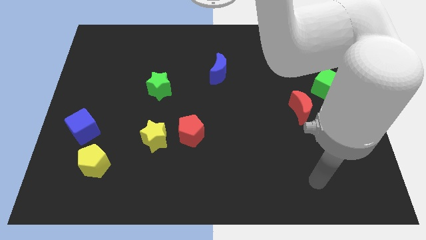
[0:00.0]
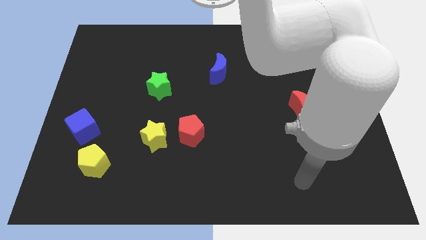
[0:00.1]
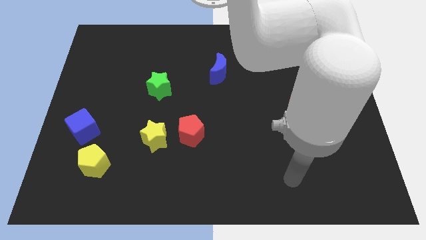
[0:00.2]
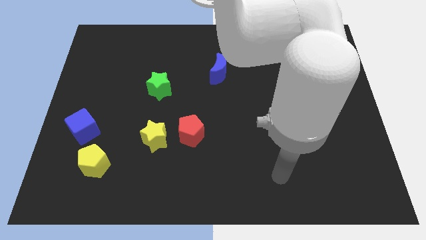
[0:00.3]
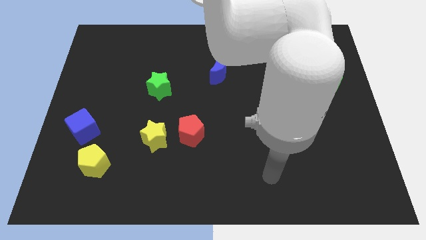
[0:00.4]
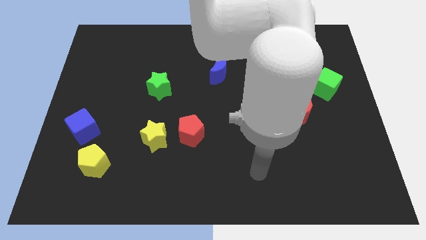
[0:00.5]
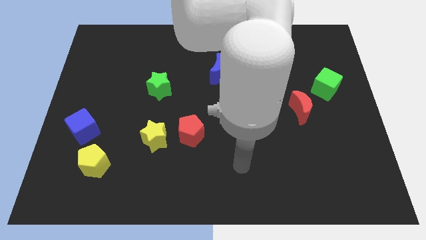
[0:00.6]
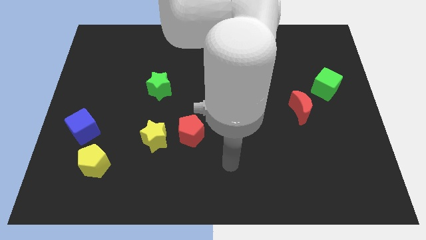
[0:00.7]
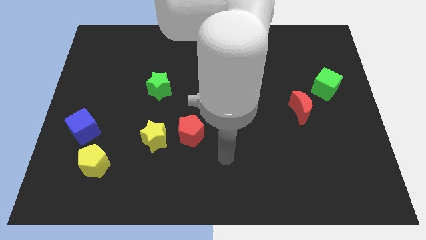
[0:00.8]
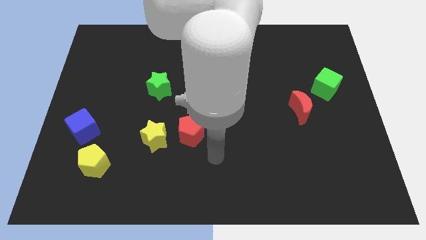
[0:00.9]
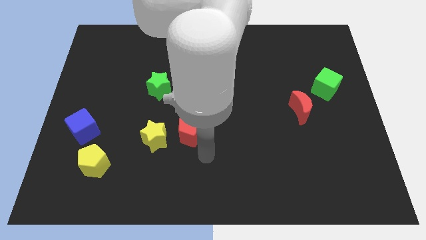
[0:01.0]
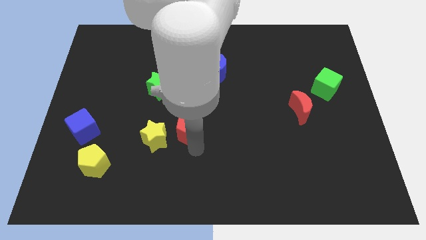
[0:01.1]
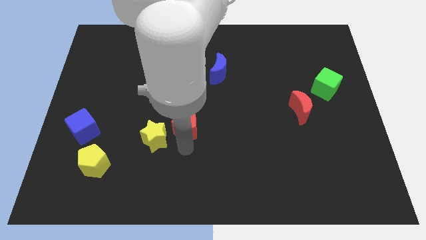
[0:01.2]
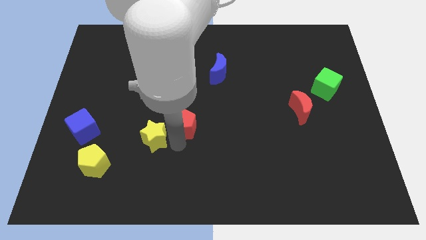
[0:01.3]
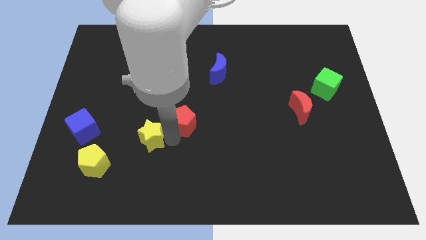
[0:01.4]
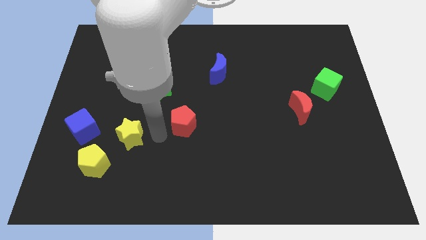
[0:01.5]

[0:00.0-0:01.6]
move the red pentagon away from the yellow star

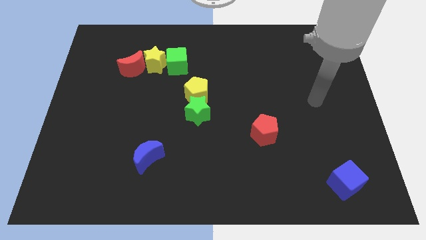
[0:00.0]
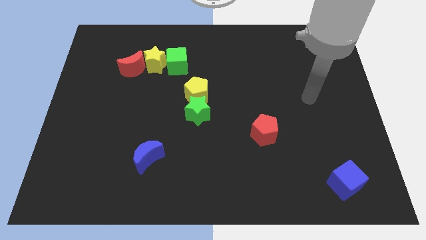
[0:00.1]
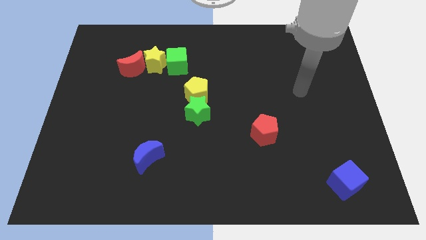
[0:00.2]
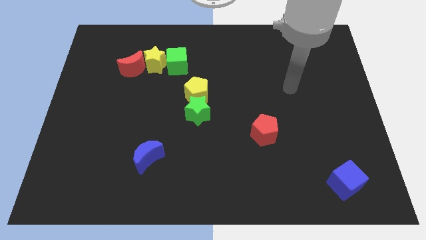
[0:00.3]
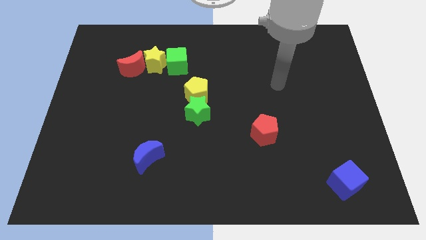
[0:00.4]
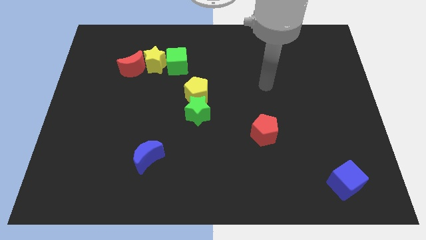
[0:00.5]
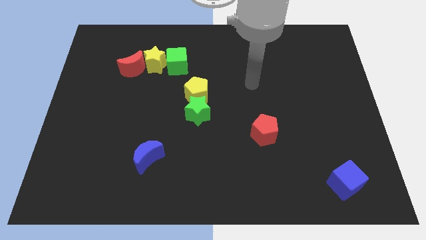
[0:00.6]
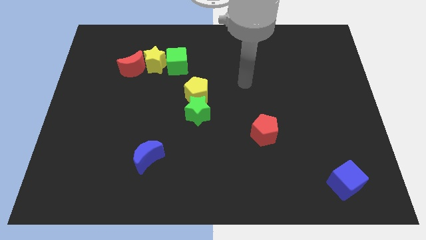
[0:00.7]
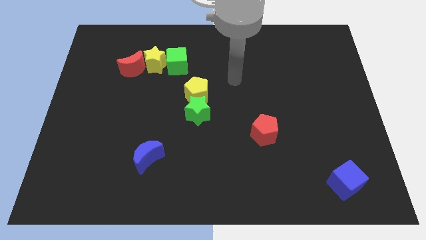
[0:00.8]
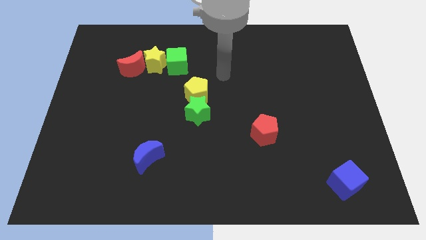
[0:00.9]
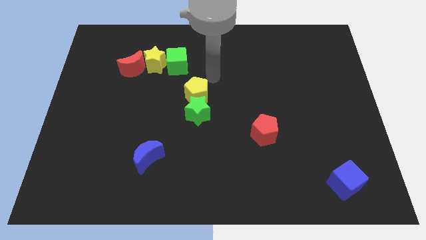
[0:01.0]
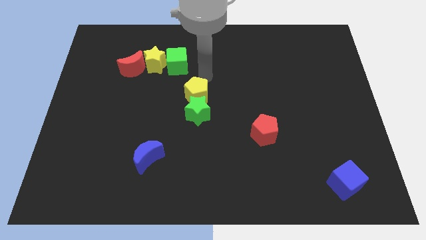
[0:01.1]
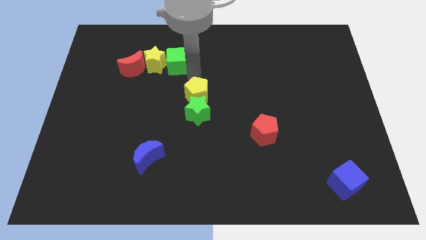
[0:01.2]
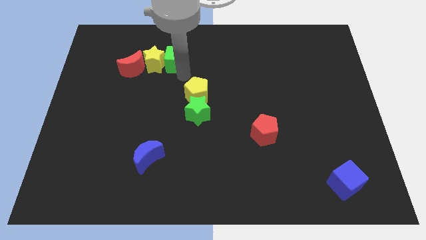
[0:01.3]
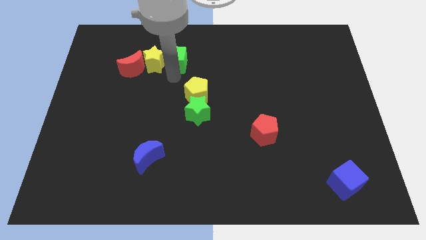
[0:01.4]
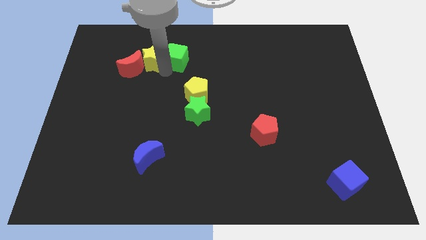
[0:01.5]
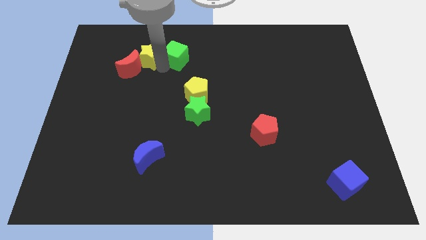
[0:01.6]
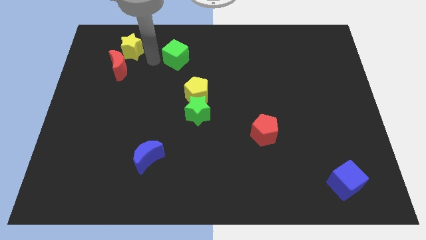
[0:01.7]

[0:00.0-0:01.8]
move the green cube away from the yellow star

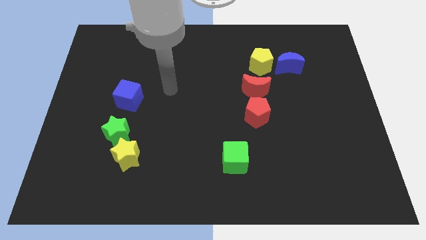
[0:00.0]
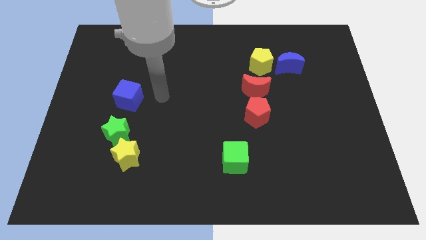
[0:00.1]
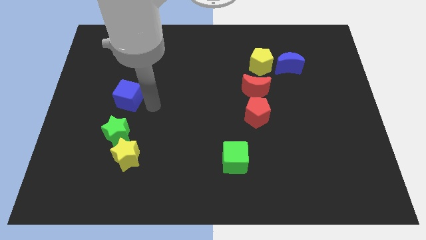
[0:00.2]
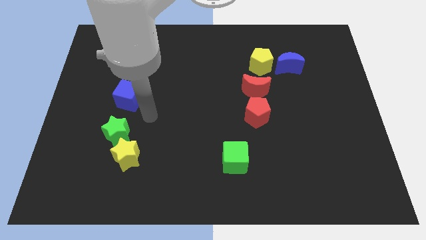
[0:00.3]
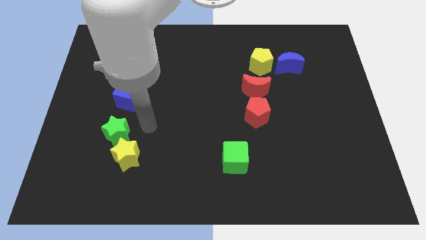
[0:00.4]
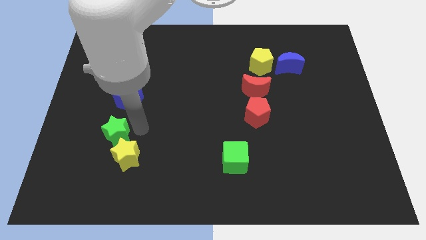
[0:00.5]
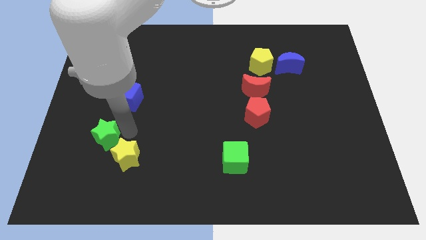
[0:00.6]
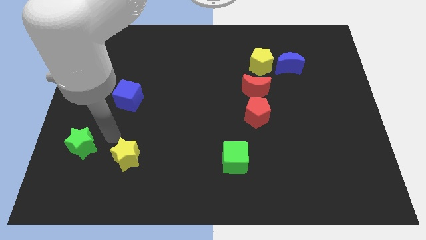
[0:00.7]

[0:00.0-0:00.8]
pull the yellow star apart from the green star

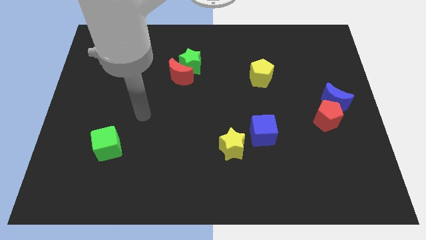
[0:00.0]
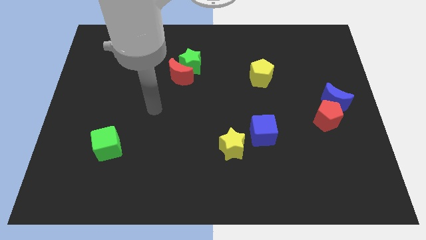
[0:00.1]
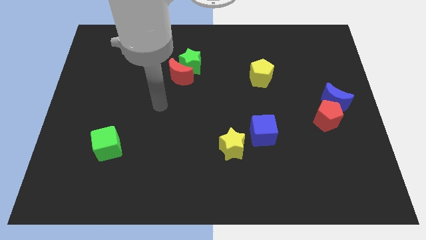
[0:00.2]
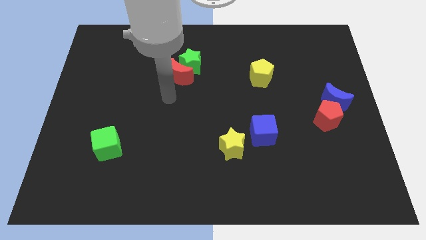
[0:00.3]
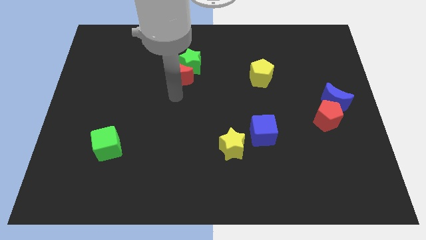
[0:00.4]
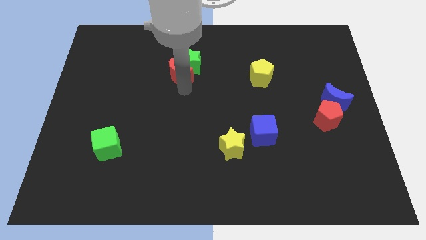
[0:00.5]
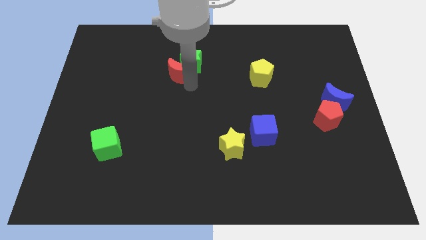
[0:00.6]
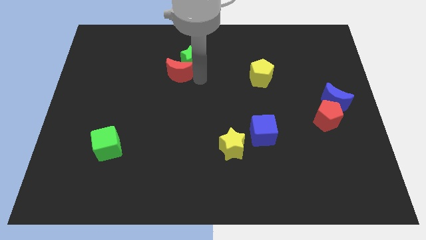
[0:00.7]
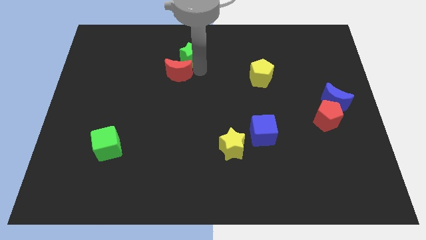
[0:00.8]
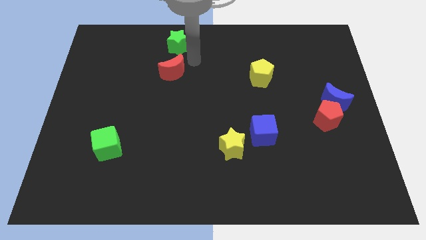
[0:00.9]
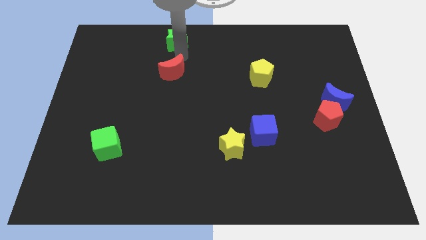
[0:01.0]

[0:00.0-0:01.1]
separate the red moon from the green star

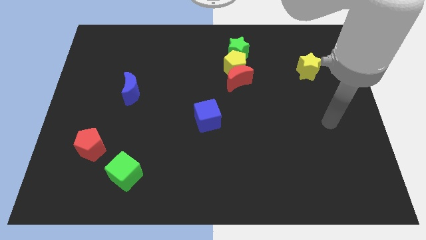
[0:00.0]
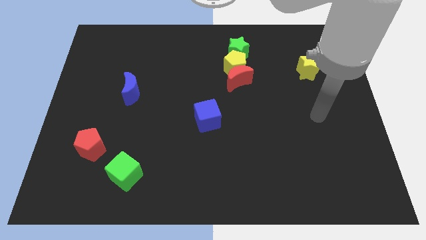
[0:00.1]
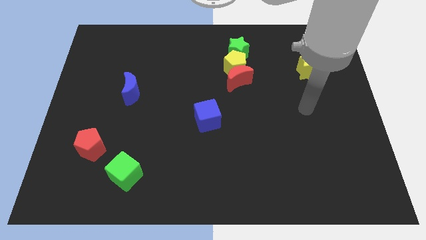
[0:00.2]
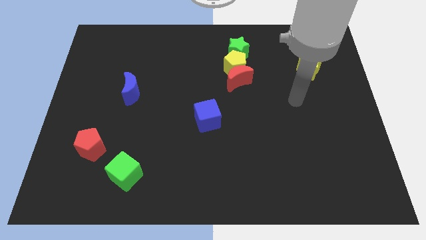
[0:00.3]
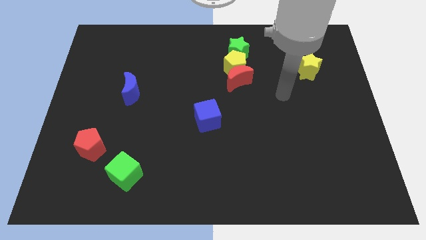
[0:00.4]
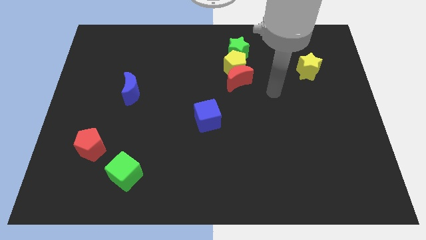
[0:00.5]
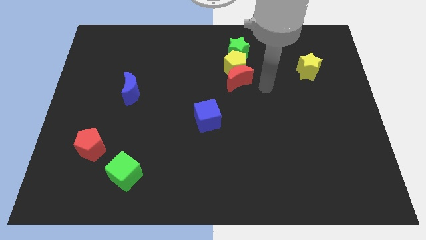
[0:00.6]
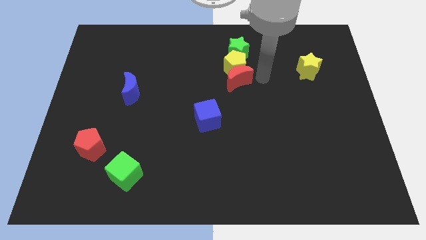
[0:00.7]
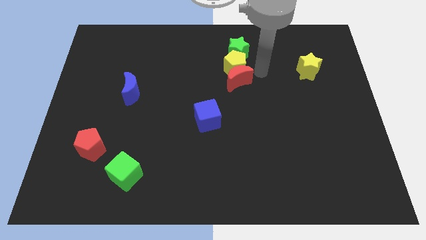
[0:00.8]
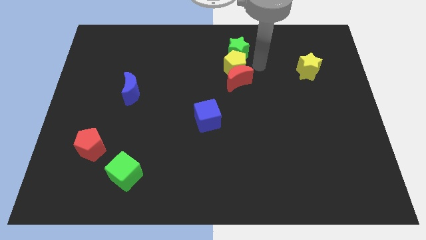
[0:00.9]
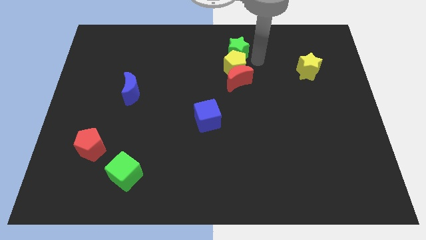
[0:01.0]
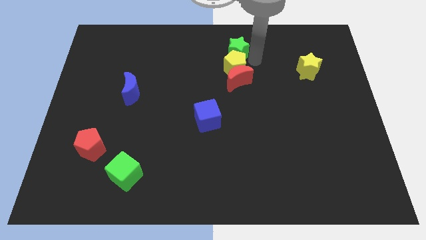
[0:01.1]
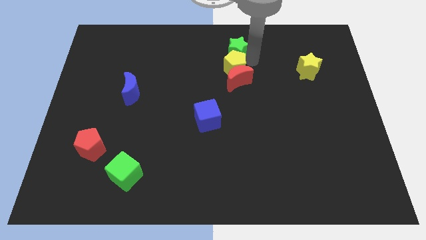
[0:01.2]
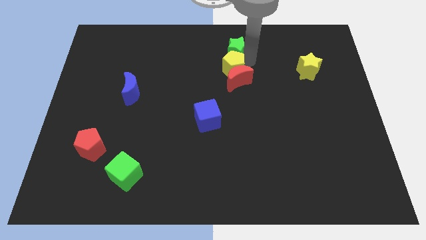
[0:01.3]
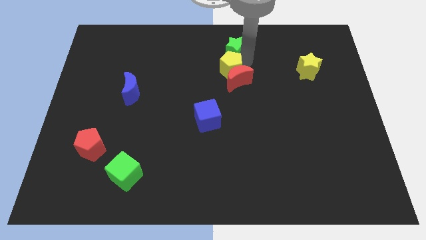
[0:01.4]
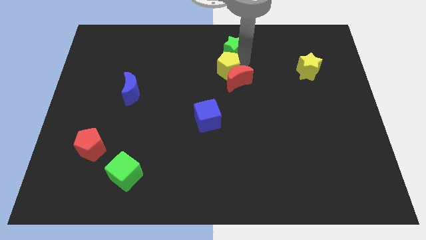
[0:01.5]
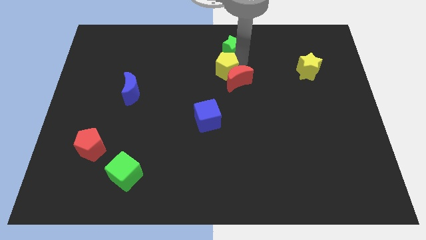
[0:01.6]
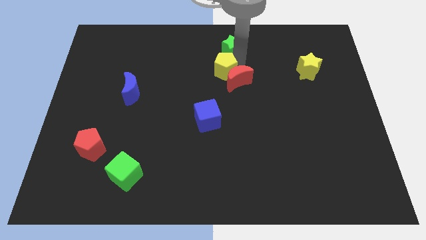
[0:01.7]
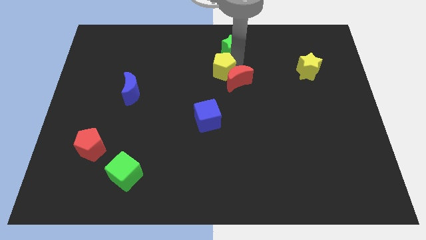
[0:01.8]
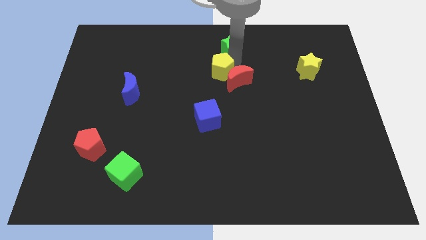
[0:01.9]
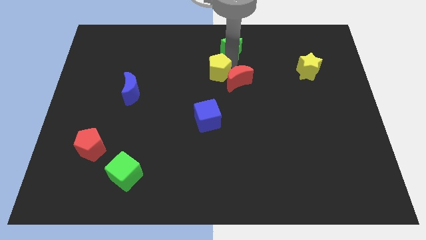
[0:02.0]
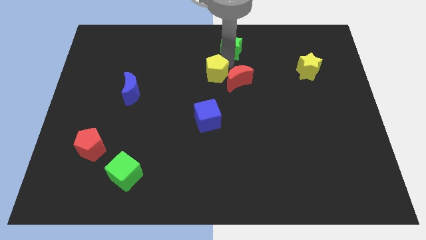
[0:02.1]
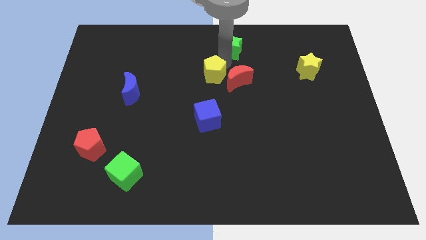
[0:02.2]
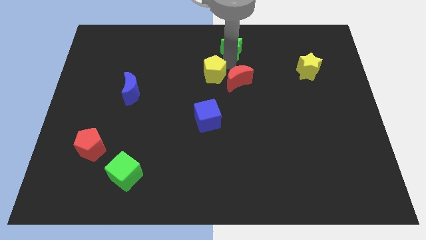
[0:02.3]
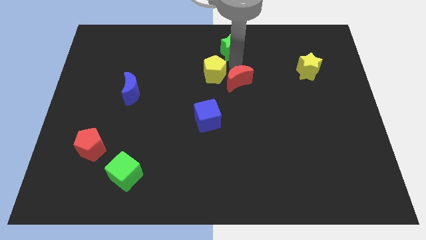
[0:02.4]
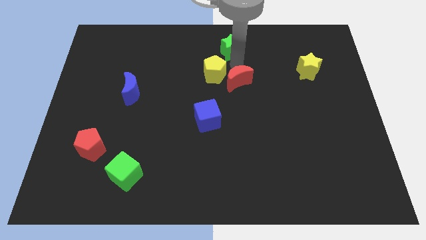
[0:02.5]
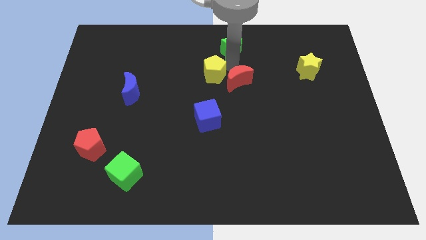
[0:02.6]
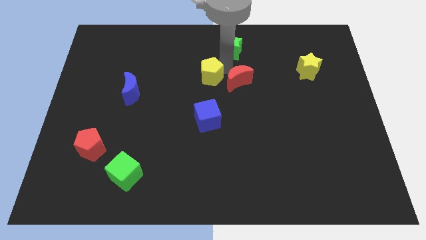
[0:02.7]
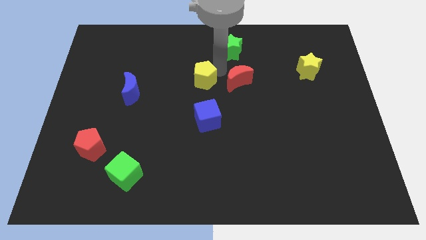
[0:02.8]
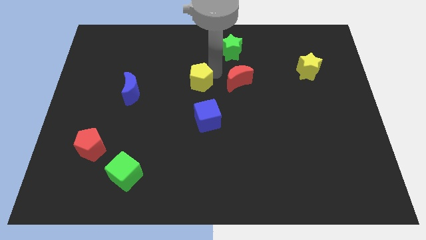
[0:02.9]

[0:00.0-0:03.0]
separate the yellow pentagon from the red moon and green star

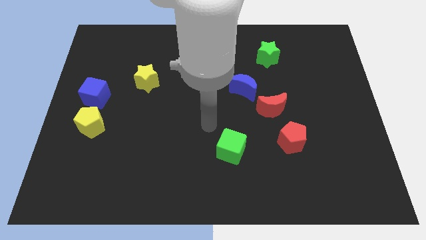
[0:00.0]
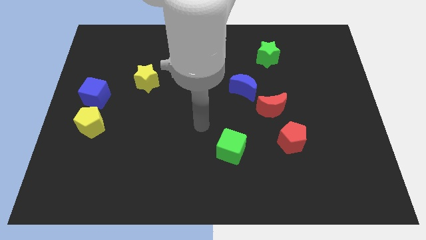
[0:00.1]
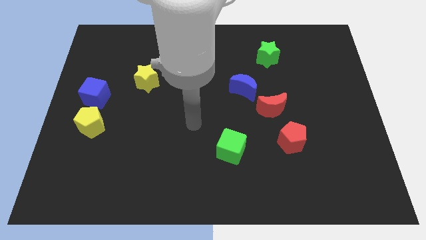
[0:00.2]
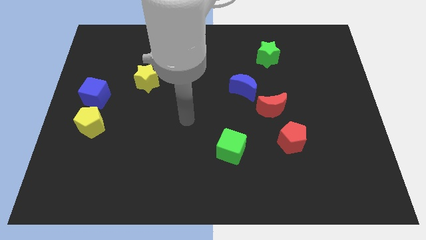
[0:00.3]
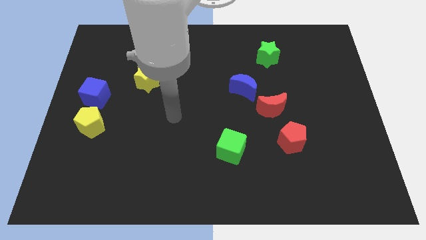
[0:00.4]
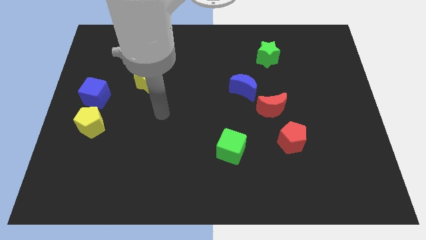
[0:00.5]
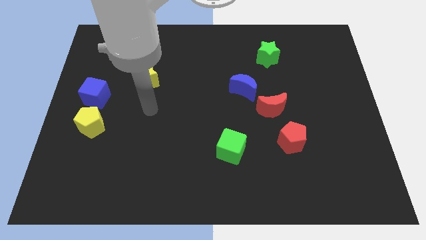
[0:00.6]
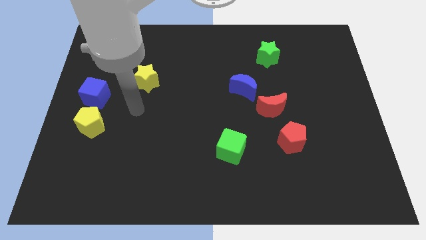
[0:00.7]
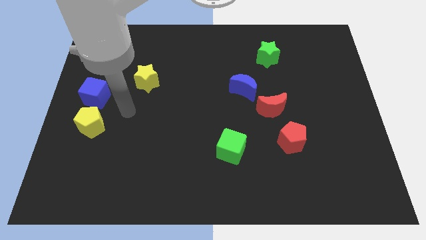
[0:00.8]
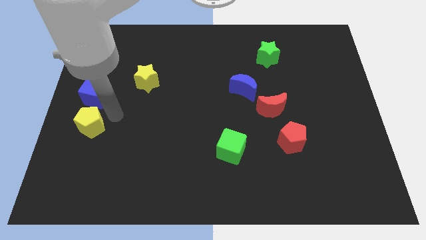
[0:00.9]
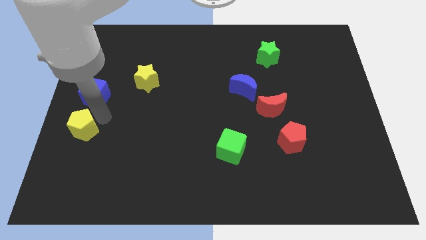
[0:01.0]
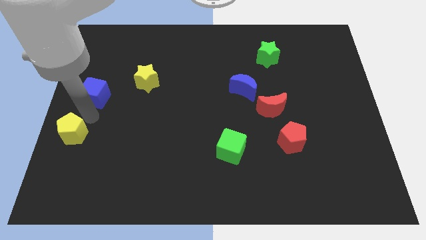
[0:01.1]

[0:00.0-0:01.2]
separate the blue cube from the yellow pentagon
